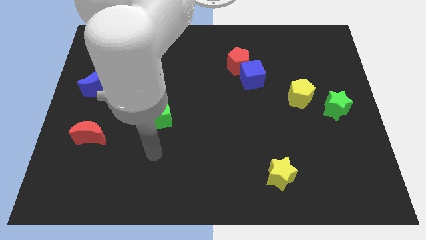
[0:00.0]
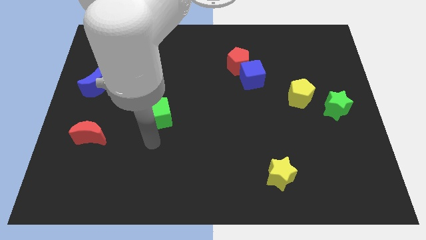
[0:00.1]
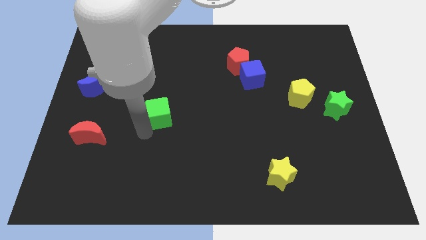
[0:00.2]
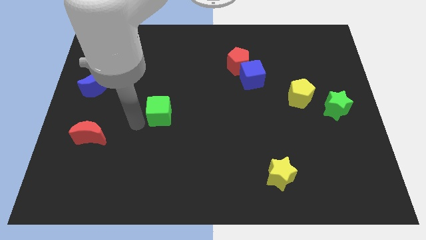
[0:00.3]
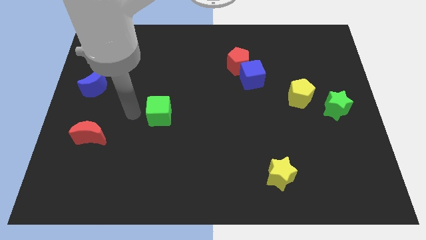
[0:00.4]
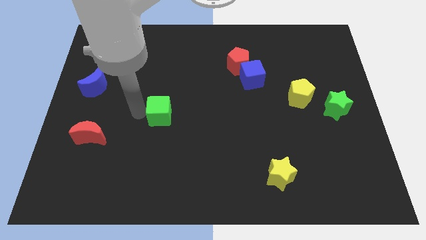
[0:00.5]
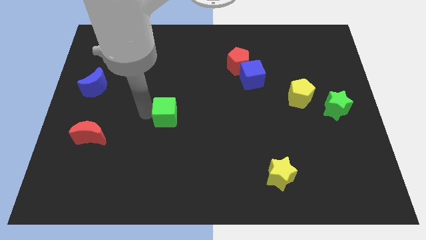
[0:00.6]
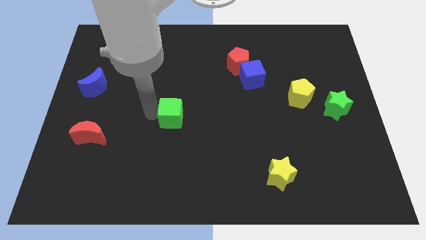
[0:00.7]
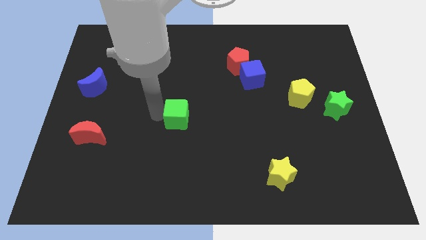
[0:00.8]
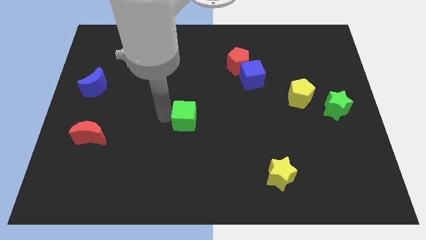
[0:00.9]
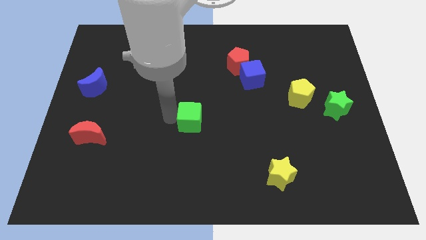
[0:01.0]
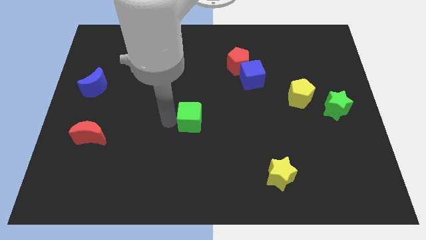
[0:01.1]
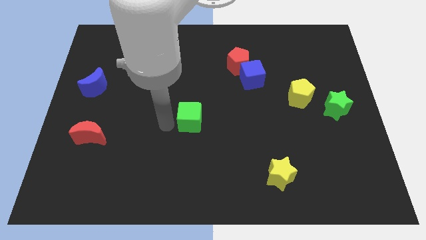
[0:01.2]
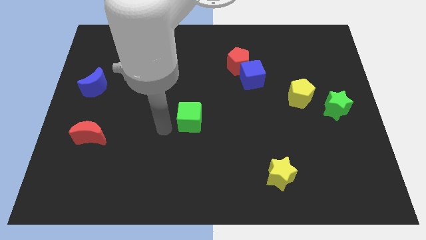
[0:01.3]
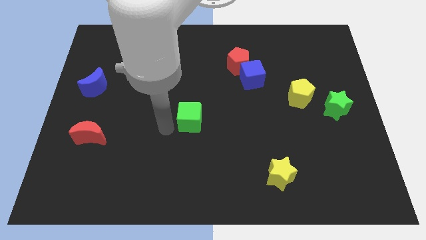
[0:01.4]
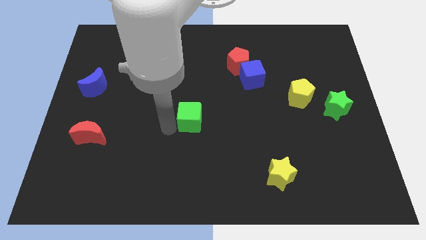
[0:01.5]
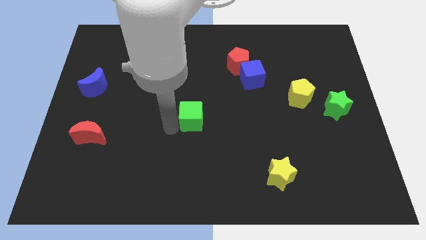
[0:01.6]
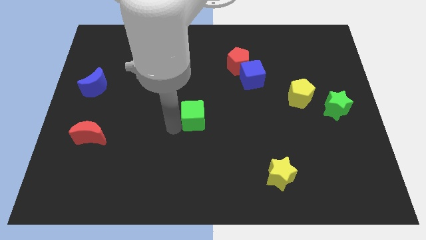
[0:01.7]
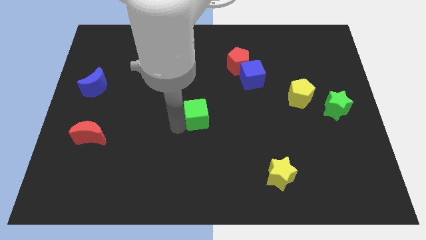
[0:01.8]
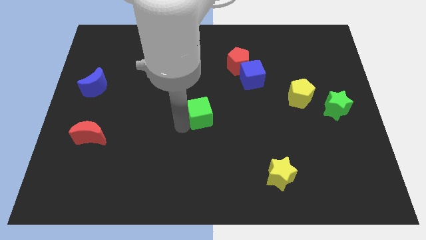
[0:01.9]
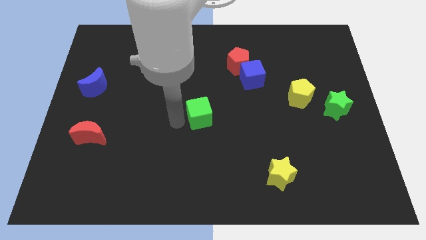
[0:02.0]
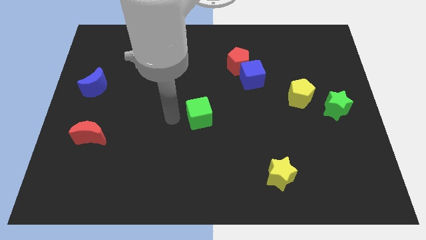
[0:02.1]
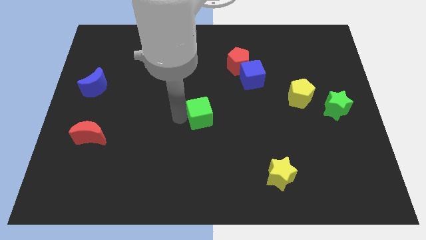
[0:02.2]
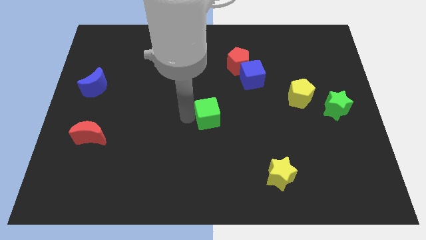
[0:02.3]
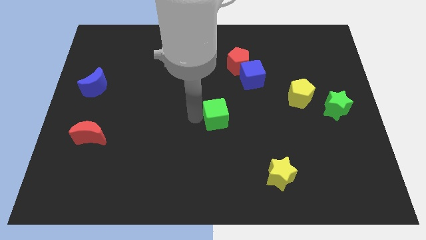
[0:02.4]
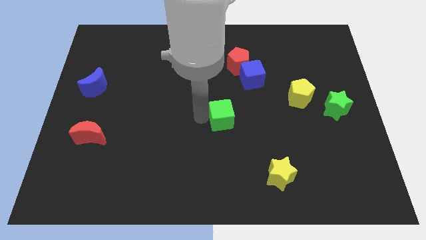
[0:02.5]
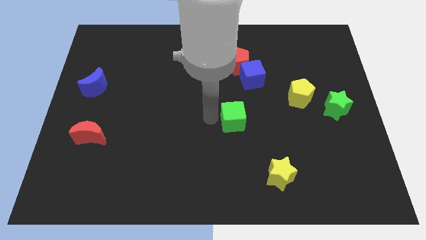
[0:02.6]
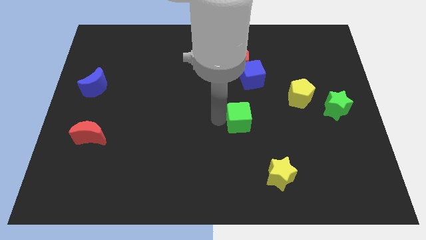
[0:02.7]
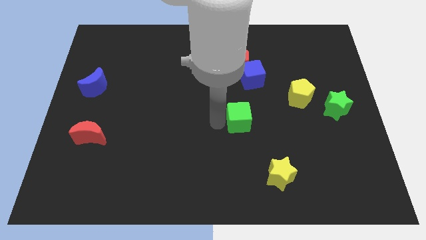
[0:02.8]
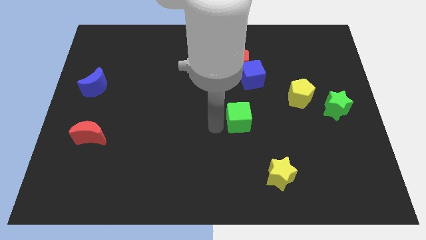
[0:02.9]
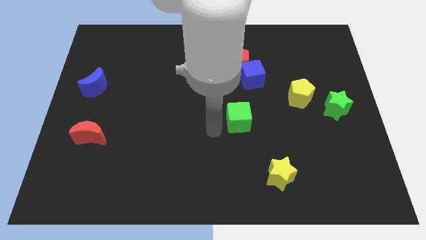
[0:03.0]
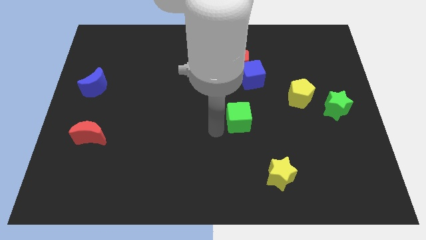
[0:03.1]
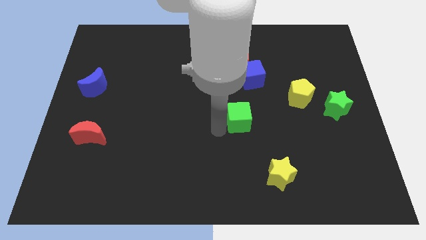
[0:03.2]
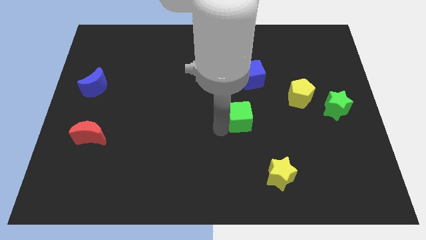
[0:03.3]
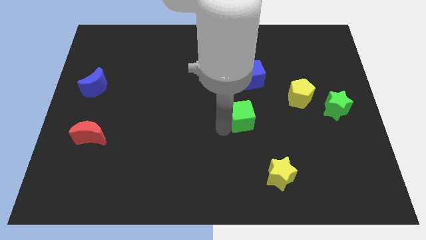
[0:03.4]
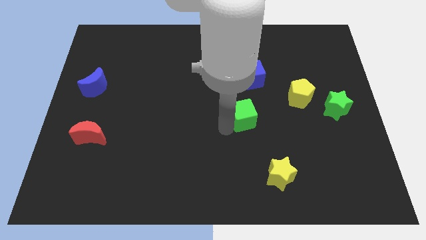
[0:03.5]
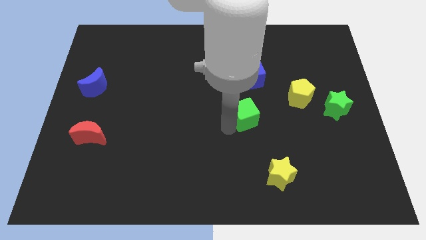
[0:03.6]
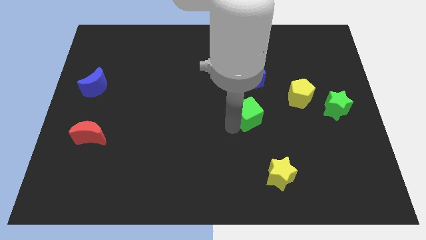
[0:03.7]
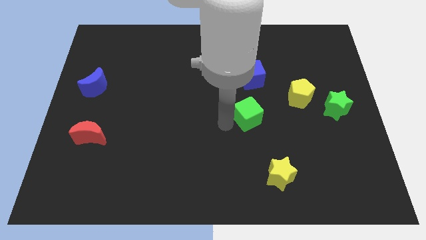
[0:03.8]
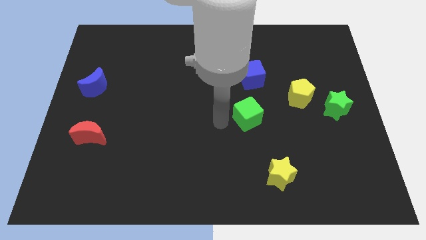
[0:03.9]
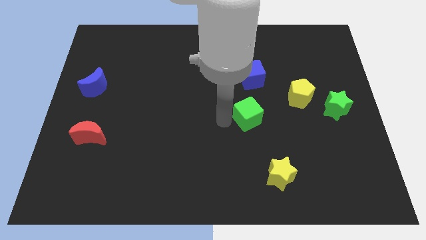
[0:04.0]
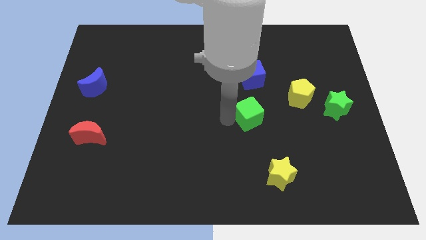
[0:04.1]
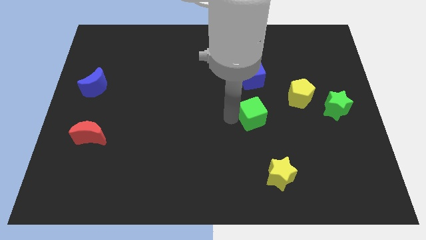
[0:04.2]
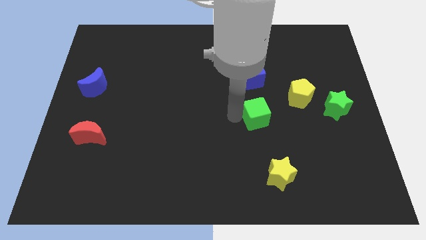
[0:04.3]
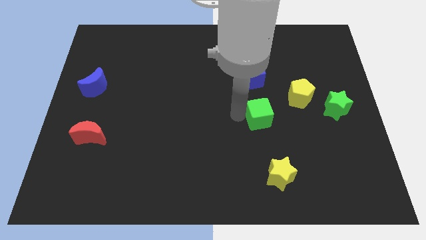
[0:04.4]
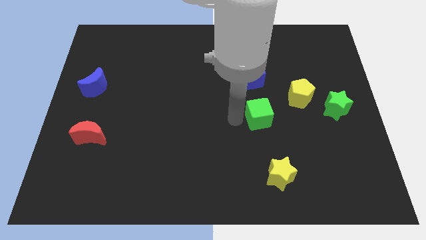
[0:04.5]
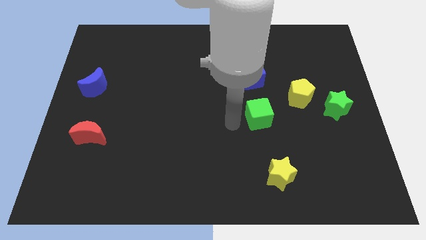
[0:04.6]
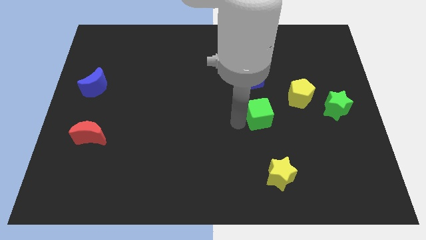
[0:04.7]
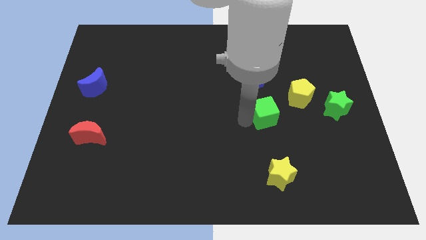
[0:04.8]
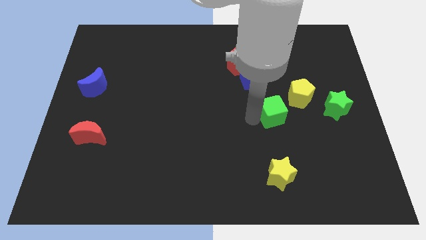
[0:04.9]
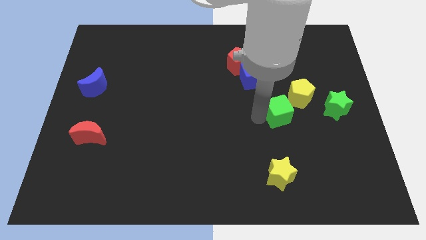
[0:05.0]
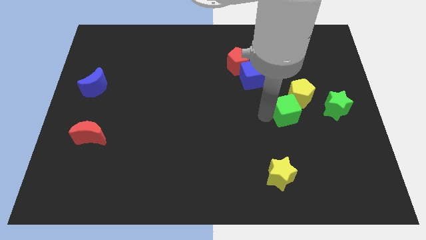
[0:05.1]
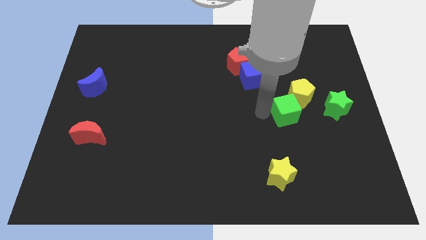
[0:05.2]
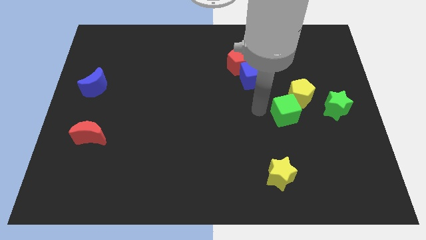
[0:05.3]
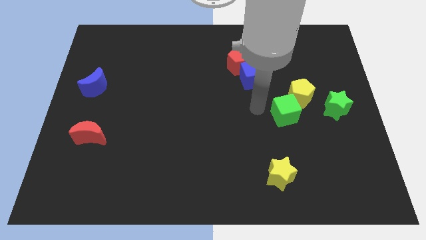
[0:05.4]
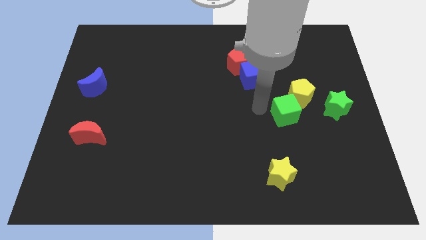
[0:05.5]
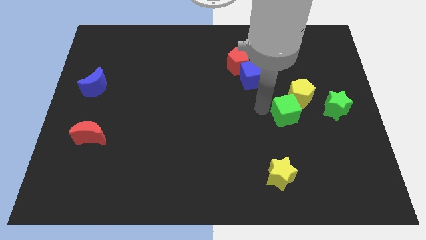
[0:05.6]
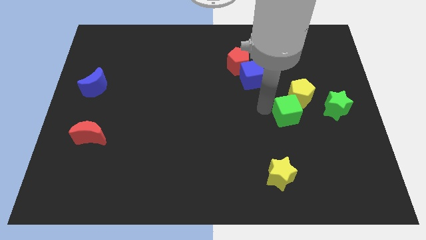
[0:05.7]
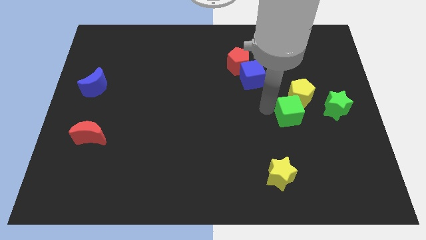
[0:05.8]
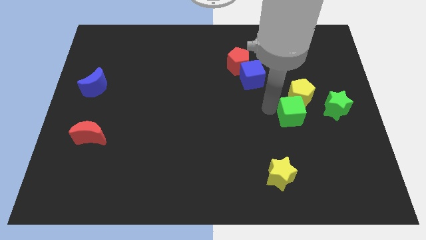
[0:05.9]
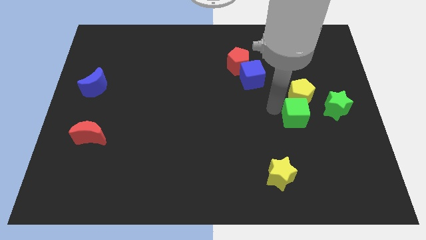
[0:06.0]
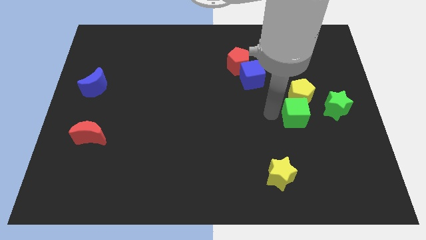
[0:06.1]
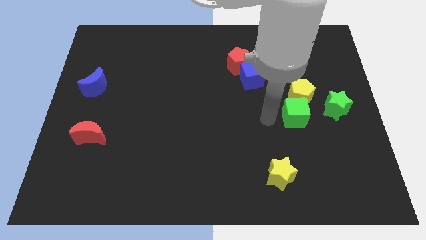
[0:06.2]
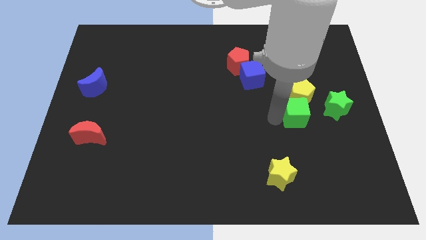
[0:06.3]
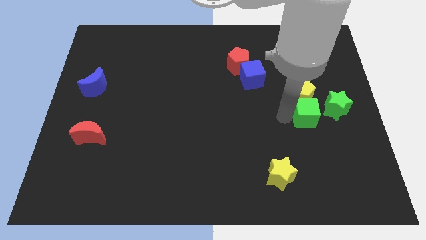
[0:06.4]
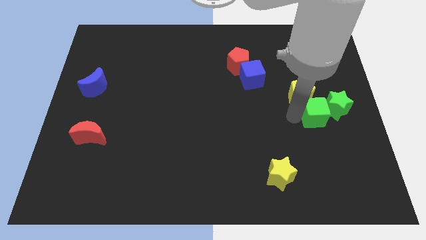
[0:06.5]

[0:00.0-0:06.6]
push the green cube towards the green star

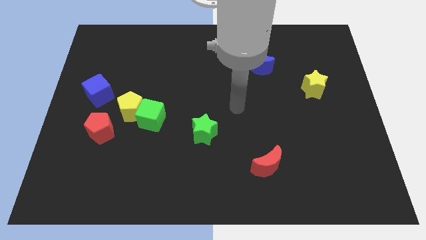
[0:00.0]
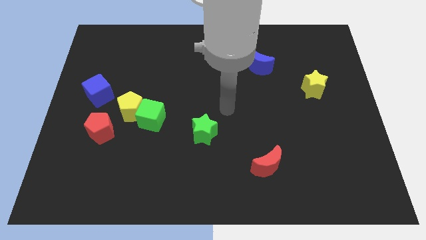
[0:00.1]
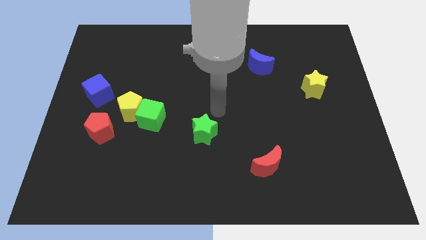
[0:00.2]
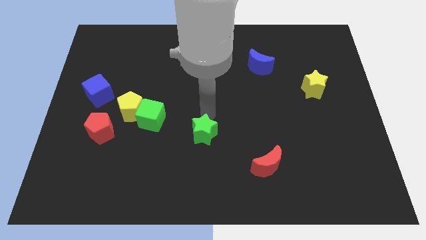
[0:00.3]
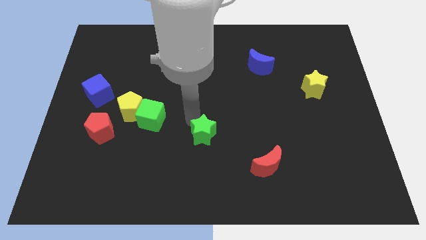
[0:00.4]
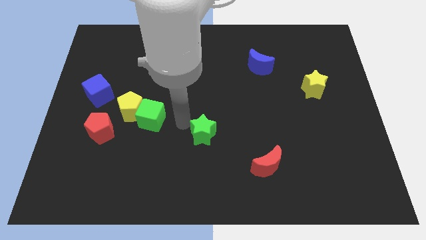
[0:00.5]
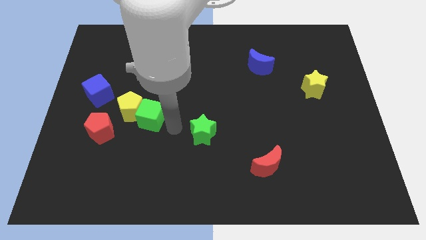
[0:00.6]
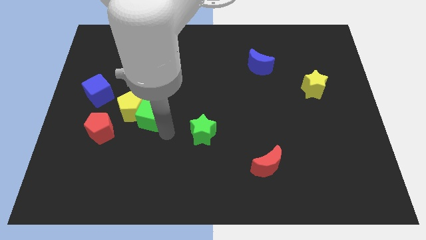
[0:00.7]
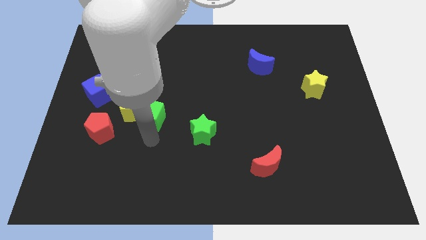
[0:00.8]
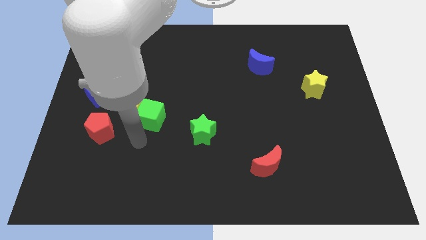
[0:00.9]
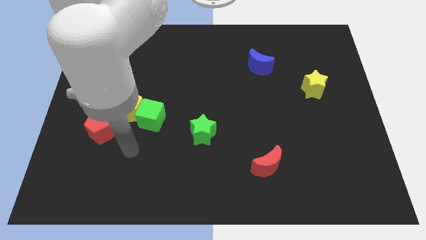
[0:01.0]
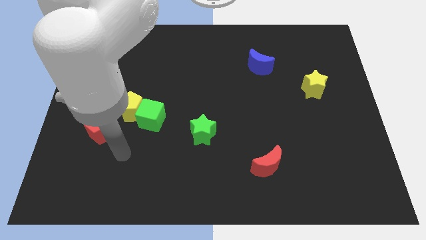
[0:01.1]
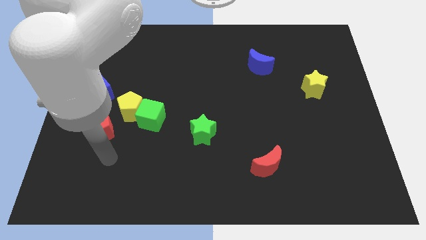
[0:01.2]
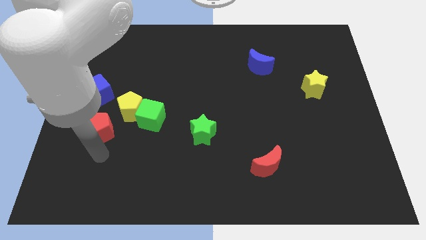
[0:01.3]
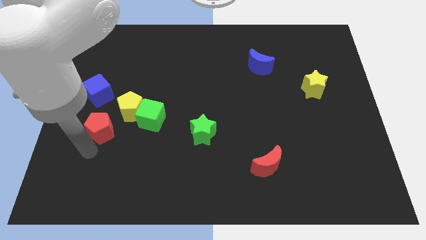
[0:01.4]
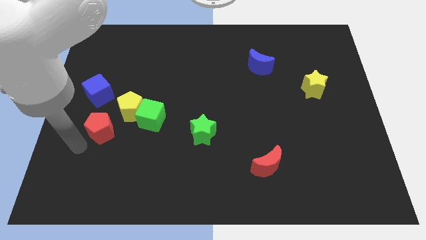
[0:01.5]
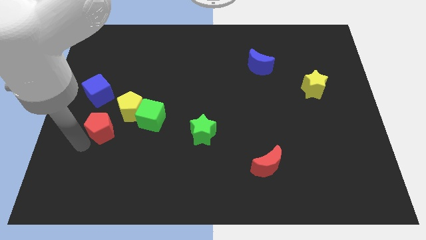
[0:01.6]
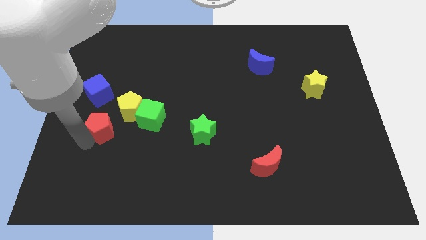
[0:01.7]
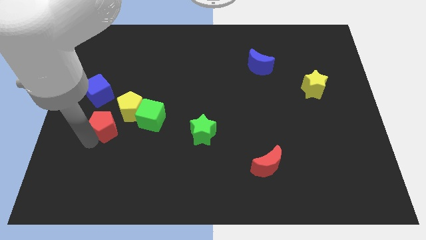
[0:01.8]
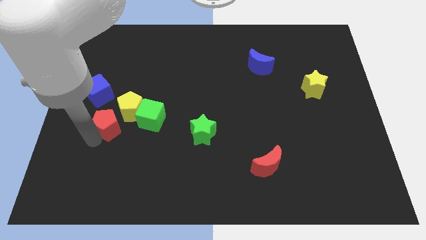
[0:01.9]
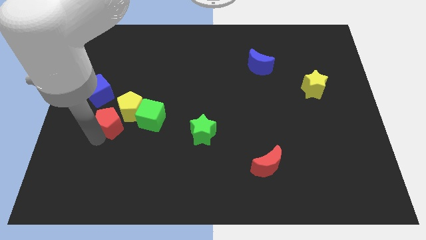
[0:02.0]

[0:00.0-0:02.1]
slide the red pentagon to the yellow pentagon
